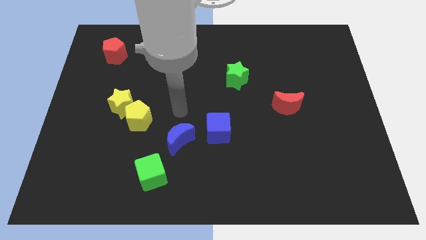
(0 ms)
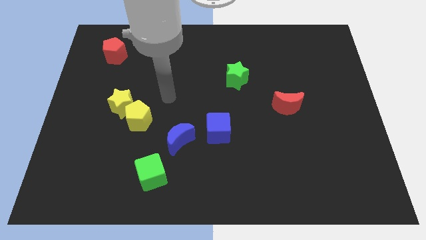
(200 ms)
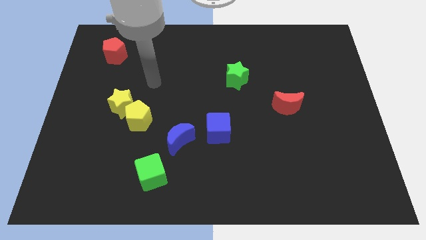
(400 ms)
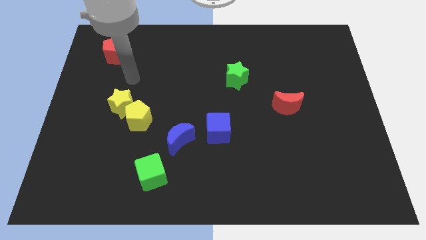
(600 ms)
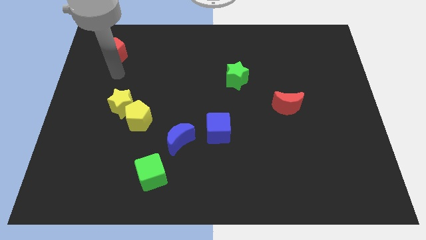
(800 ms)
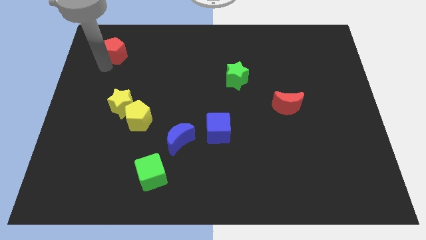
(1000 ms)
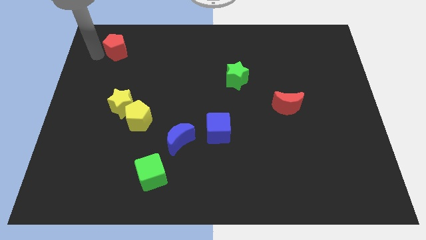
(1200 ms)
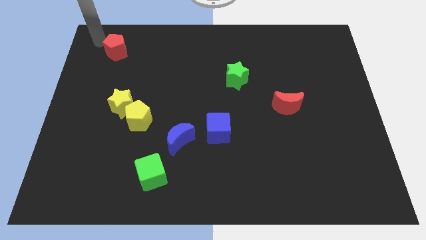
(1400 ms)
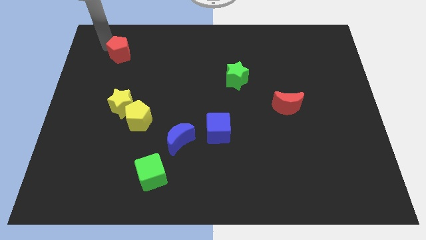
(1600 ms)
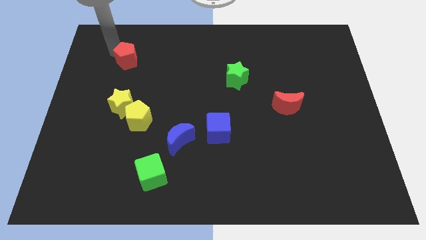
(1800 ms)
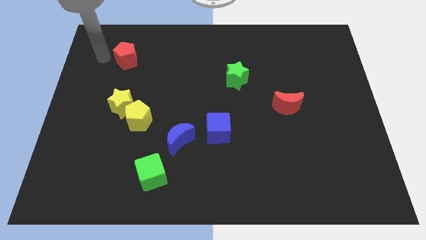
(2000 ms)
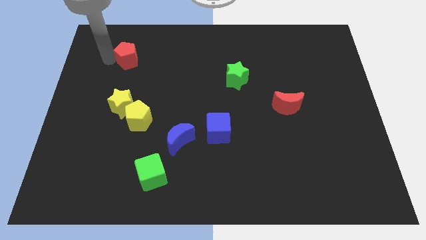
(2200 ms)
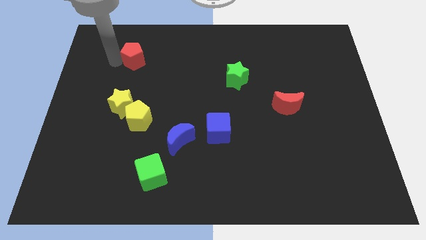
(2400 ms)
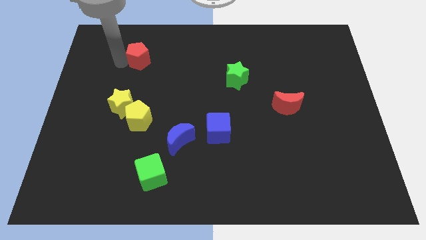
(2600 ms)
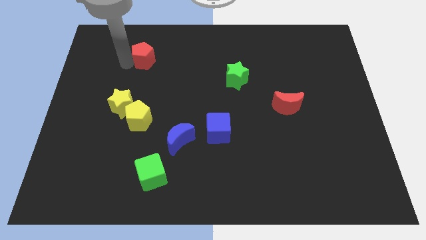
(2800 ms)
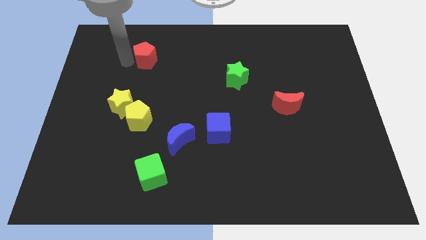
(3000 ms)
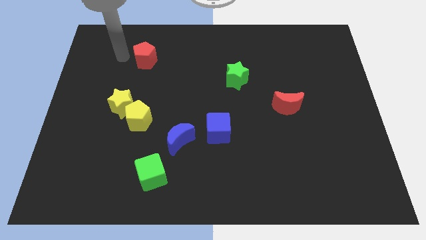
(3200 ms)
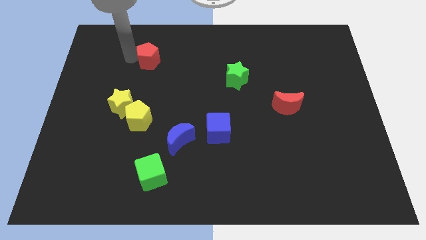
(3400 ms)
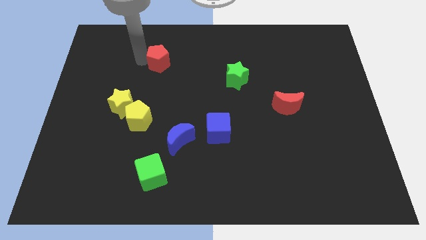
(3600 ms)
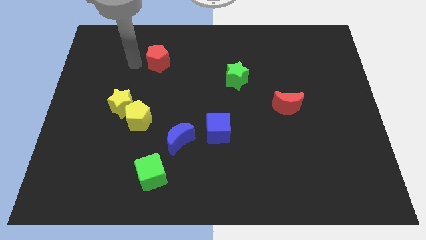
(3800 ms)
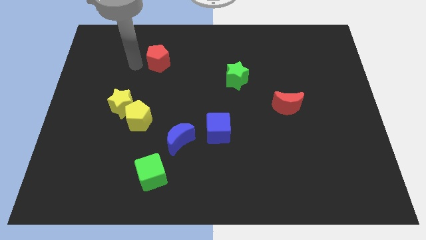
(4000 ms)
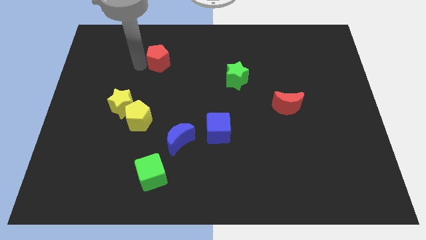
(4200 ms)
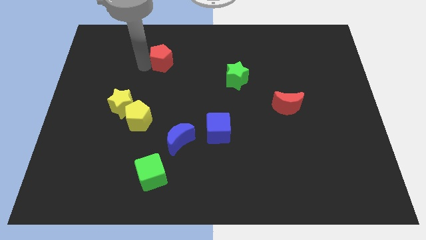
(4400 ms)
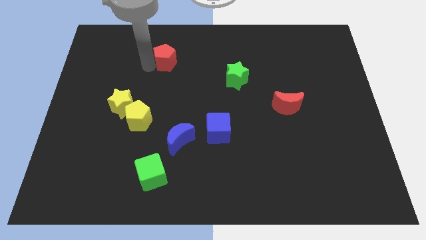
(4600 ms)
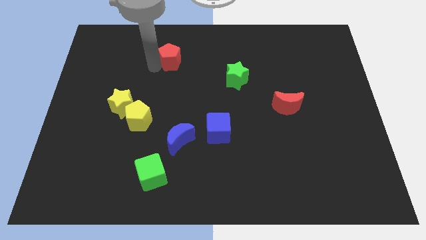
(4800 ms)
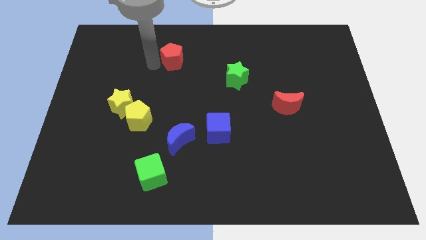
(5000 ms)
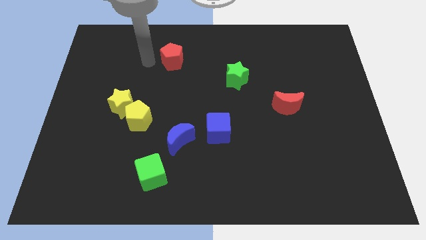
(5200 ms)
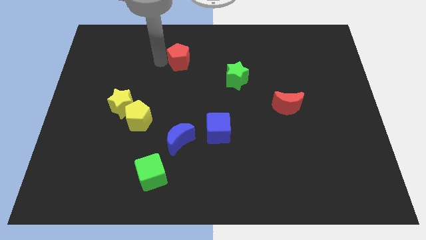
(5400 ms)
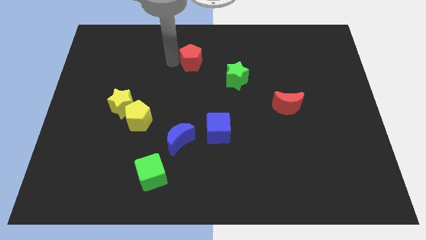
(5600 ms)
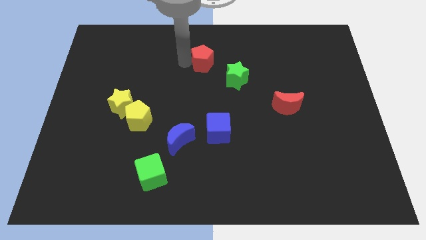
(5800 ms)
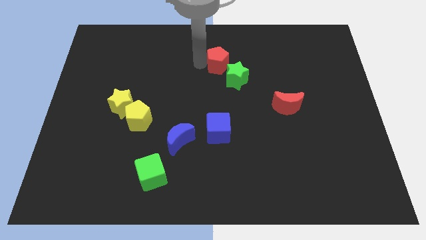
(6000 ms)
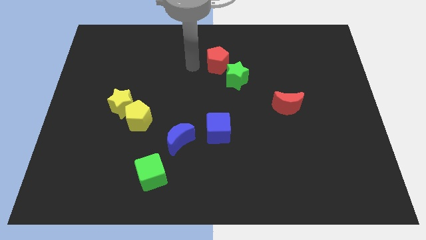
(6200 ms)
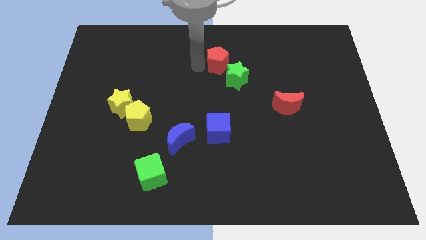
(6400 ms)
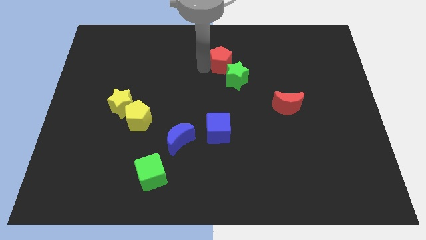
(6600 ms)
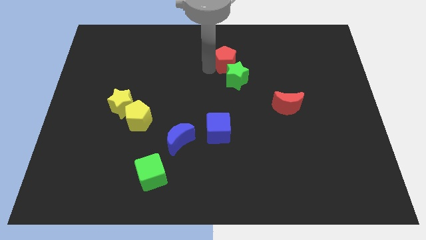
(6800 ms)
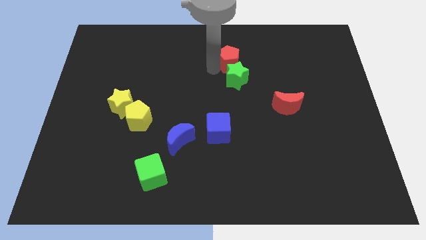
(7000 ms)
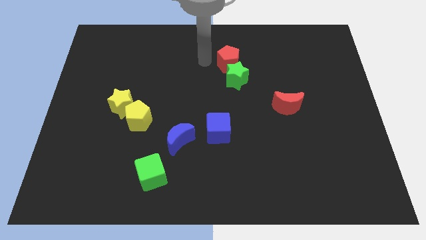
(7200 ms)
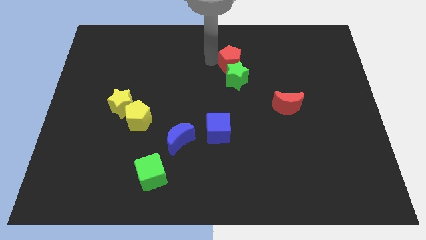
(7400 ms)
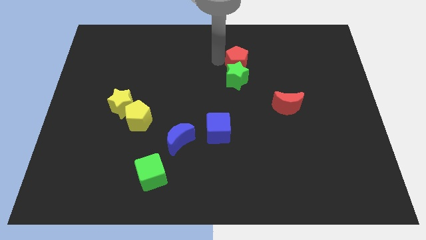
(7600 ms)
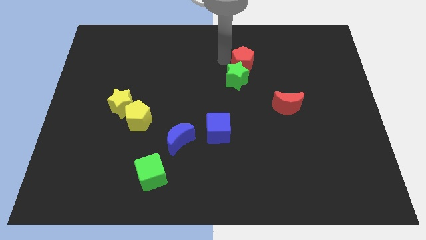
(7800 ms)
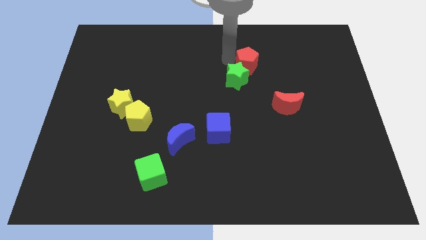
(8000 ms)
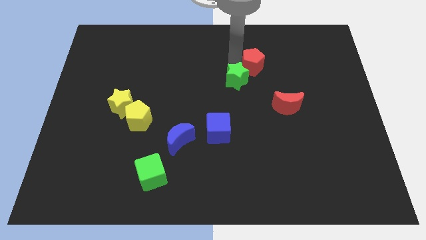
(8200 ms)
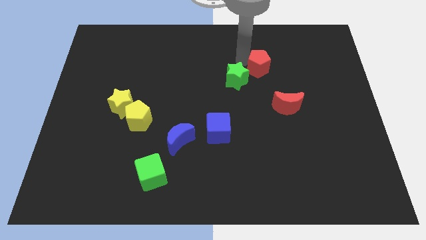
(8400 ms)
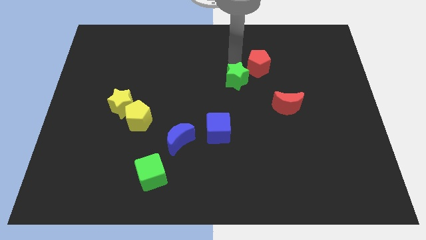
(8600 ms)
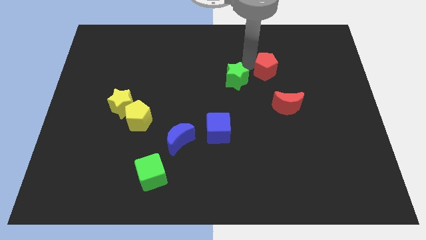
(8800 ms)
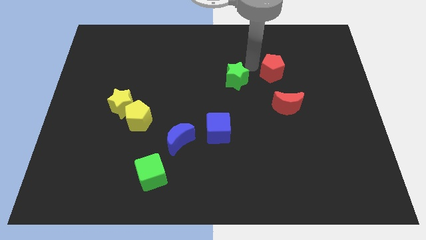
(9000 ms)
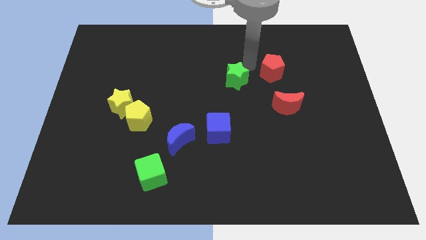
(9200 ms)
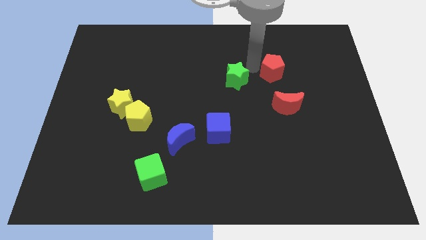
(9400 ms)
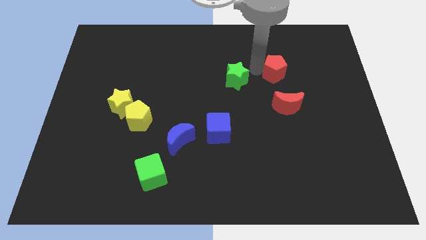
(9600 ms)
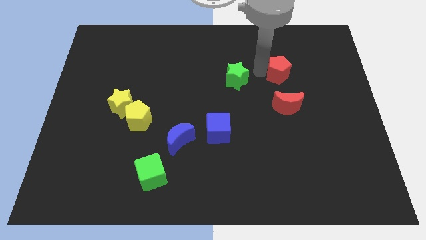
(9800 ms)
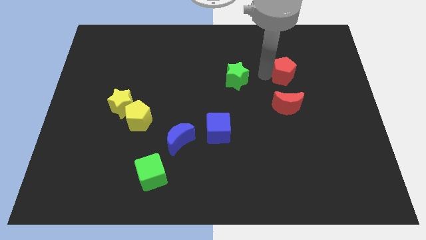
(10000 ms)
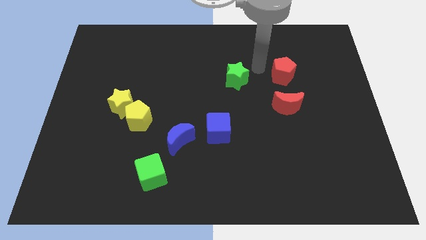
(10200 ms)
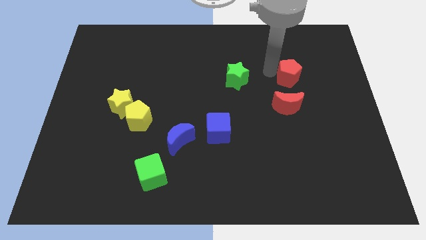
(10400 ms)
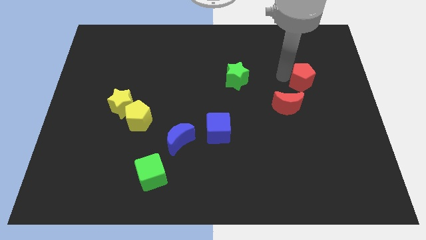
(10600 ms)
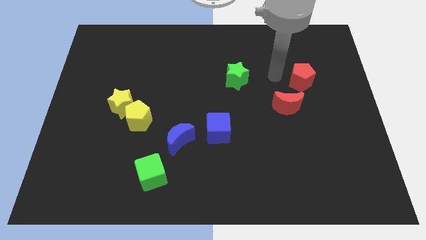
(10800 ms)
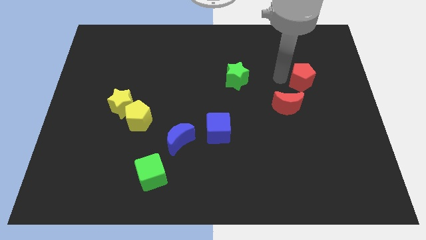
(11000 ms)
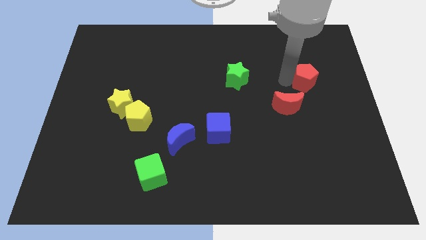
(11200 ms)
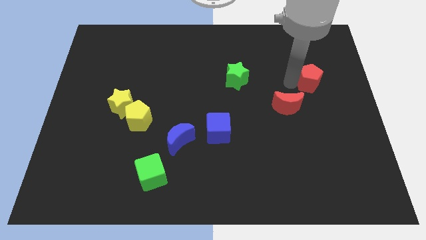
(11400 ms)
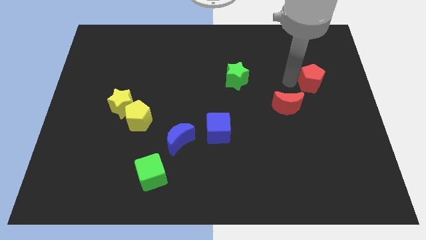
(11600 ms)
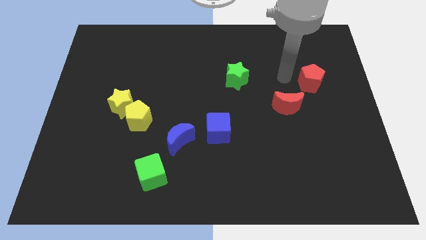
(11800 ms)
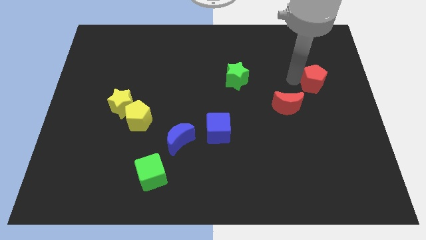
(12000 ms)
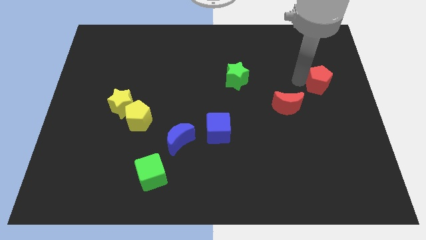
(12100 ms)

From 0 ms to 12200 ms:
slide the red pentagon to the right side of the board
